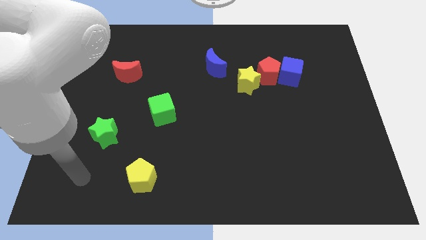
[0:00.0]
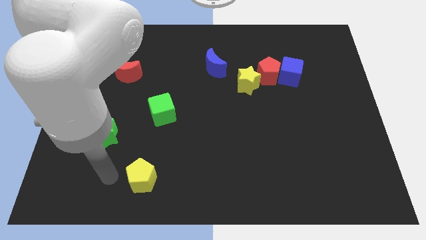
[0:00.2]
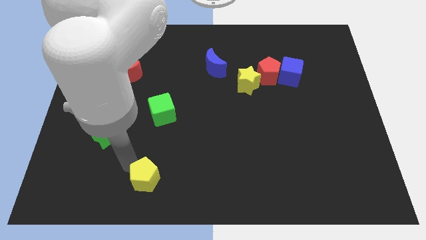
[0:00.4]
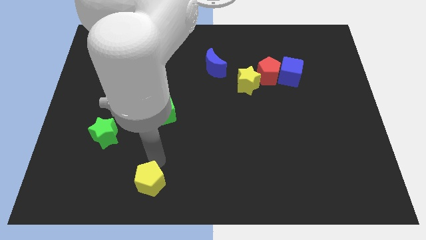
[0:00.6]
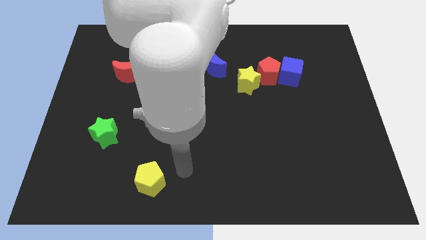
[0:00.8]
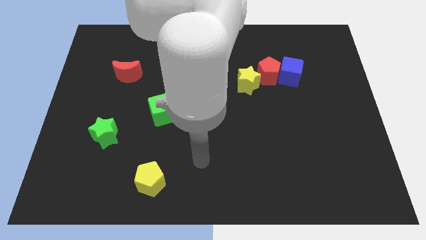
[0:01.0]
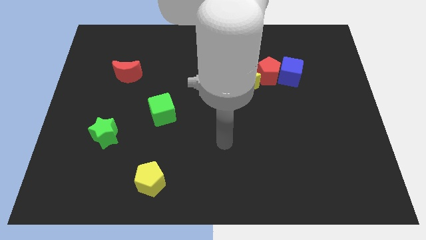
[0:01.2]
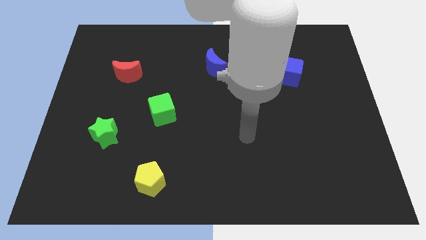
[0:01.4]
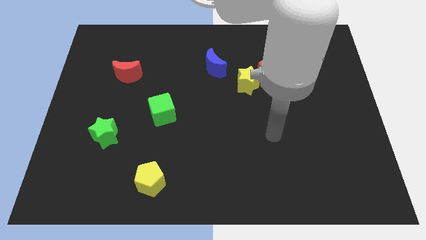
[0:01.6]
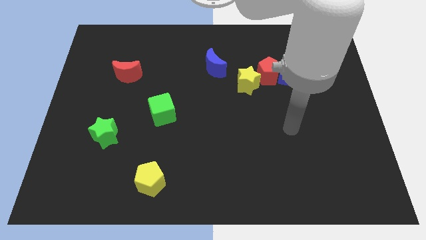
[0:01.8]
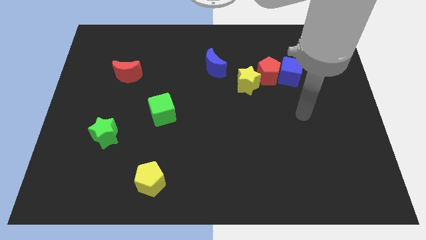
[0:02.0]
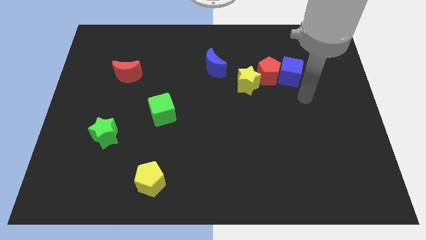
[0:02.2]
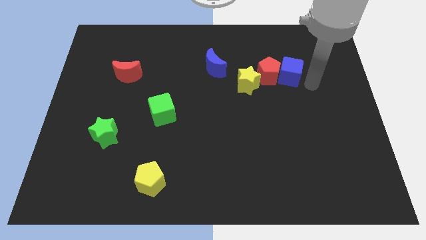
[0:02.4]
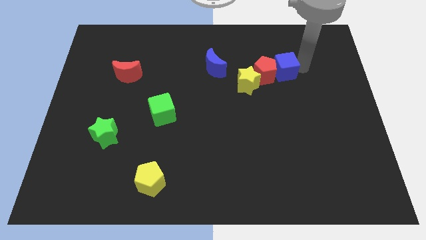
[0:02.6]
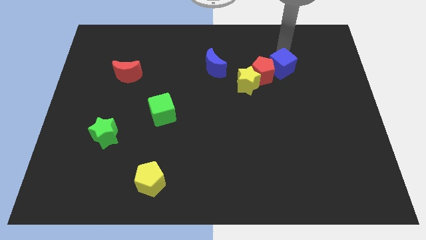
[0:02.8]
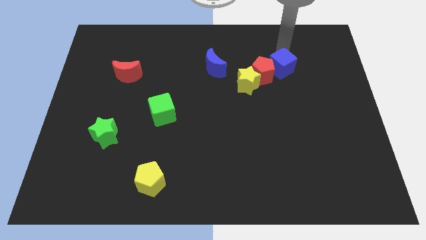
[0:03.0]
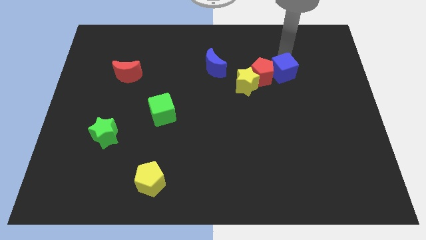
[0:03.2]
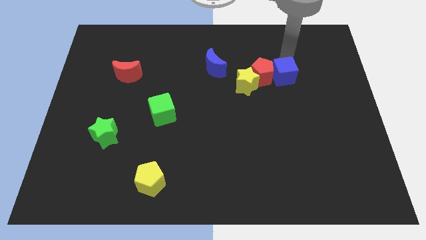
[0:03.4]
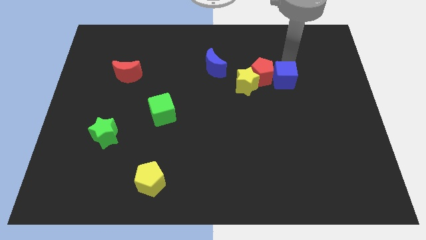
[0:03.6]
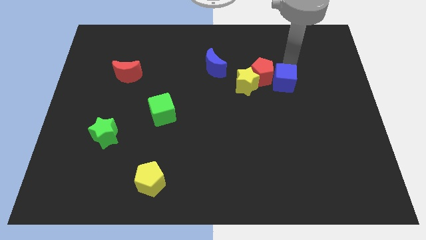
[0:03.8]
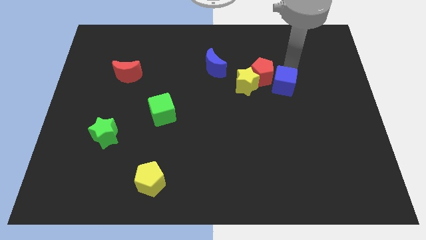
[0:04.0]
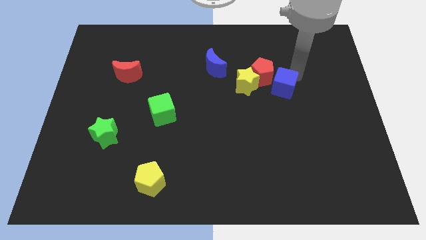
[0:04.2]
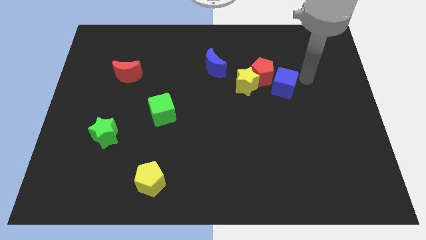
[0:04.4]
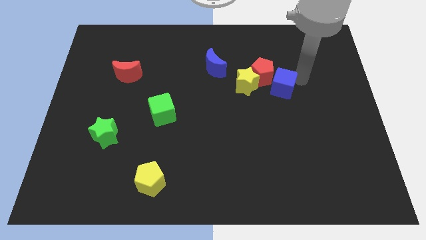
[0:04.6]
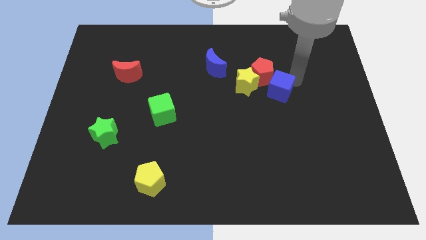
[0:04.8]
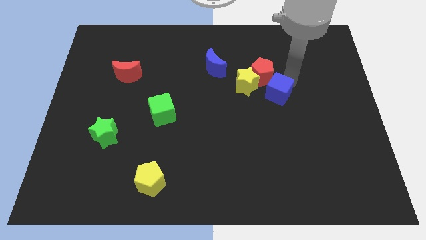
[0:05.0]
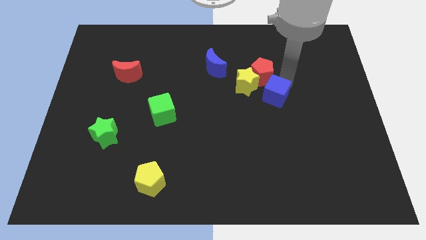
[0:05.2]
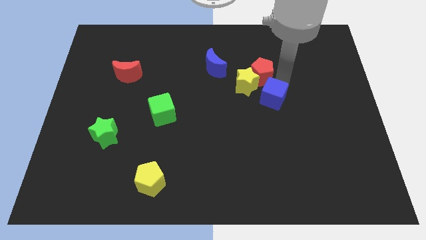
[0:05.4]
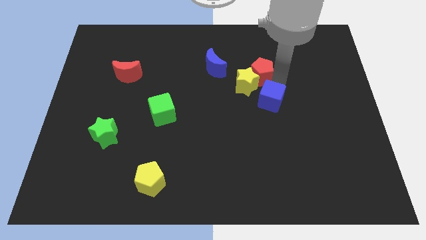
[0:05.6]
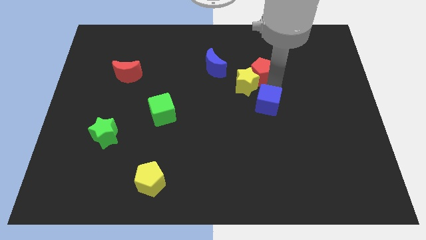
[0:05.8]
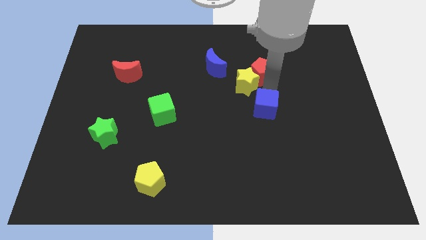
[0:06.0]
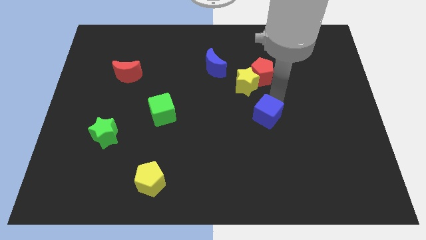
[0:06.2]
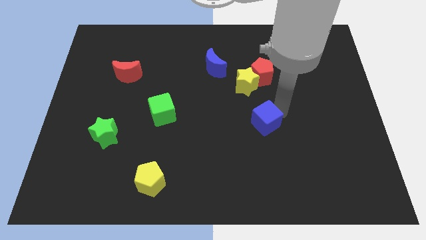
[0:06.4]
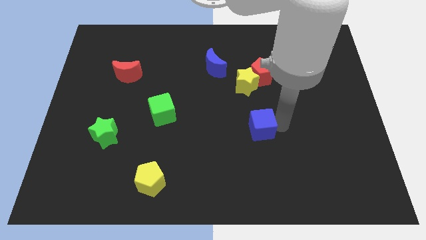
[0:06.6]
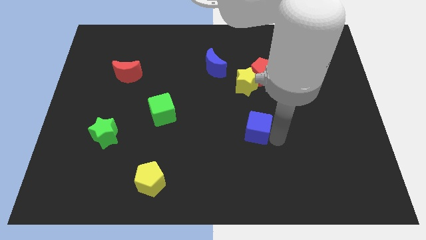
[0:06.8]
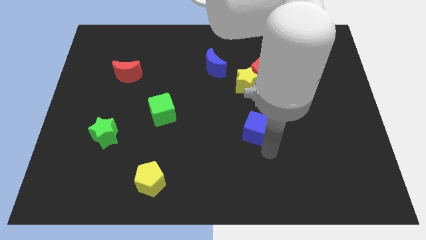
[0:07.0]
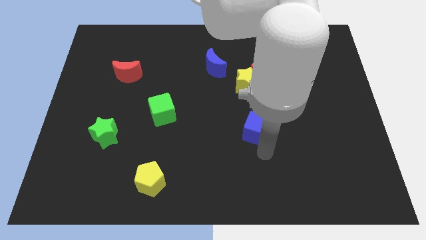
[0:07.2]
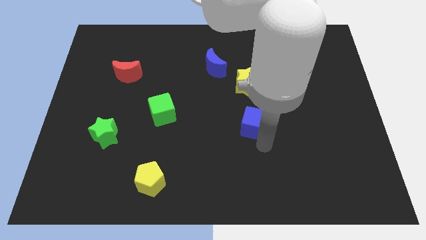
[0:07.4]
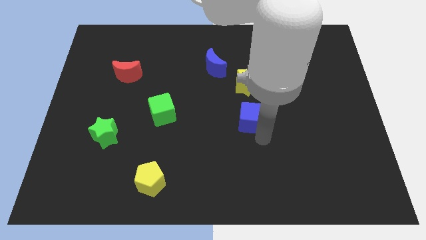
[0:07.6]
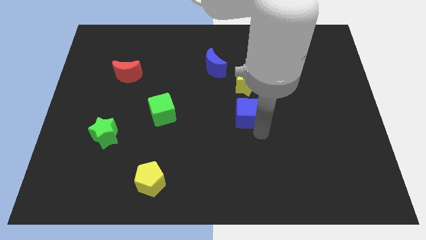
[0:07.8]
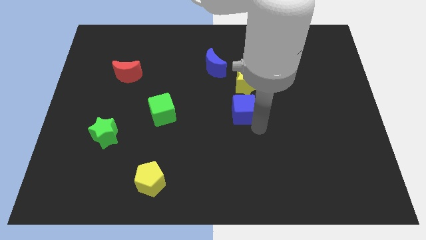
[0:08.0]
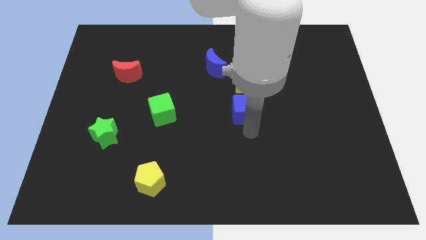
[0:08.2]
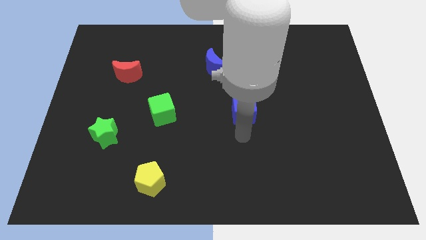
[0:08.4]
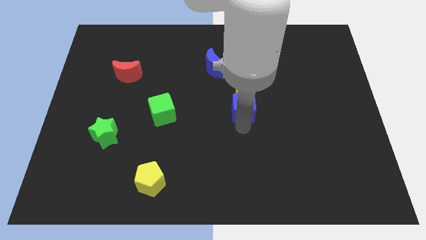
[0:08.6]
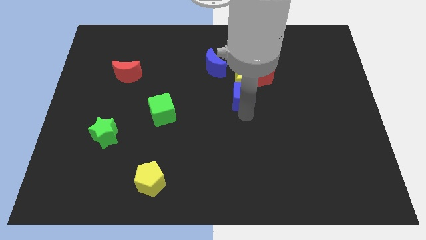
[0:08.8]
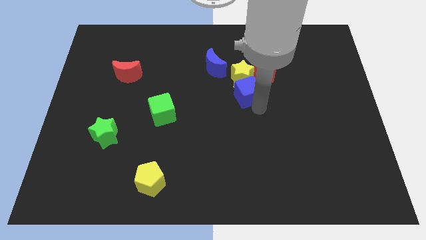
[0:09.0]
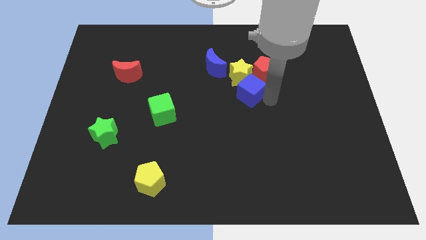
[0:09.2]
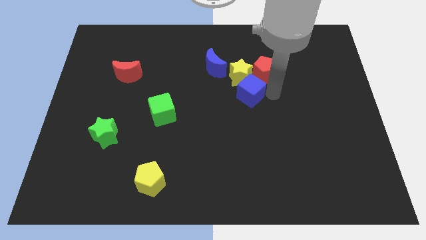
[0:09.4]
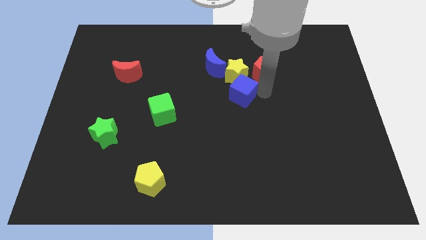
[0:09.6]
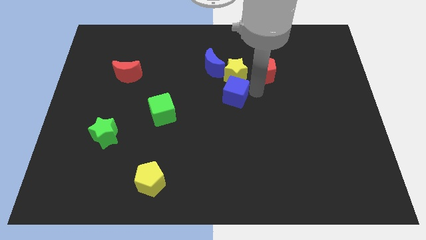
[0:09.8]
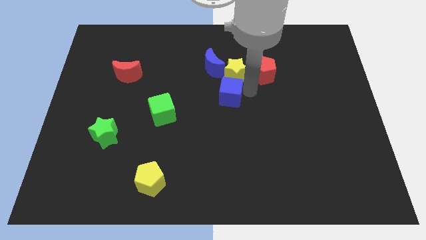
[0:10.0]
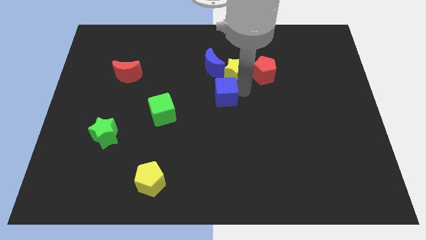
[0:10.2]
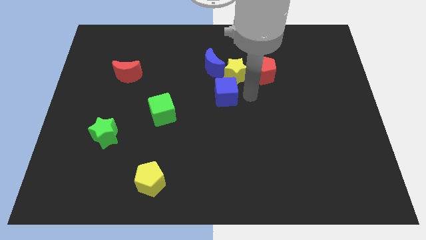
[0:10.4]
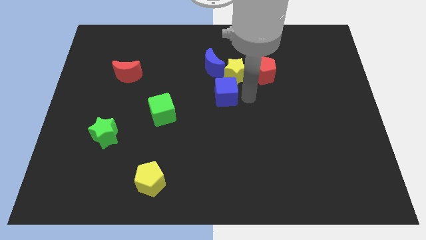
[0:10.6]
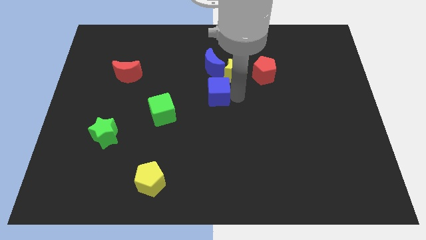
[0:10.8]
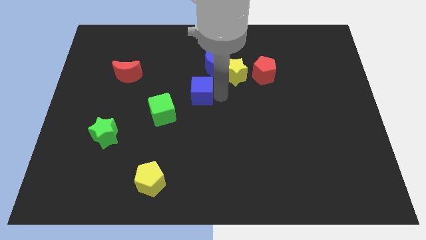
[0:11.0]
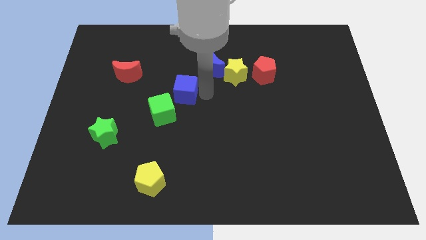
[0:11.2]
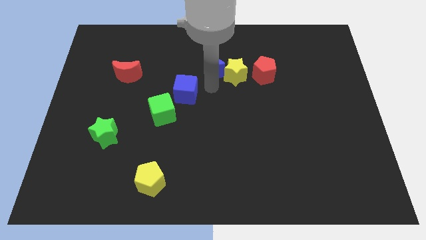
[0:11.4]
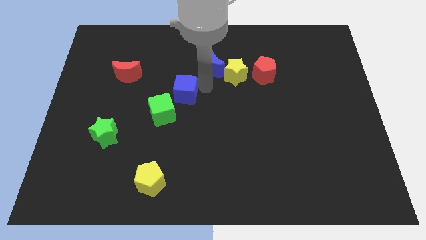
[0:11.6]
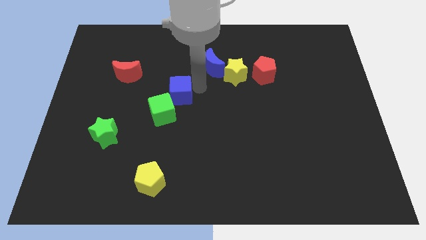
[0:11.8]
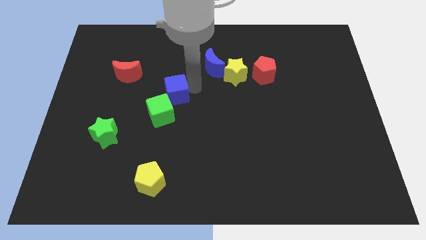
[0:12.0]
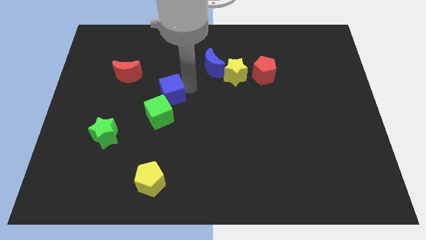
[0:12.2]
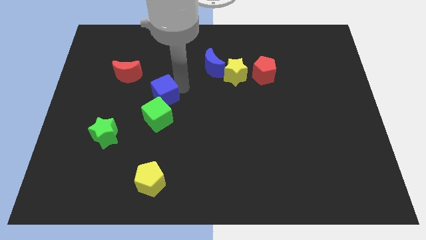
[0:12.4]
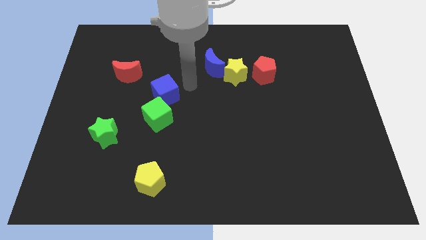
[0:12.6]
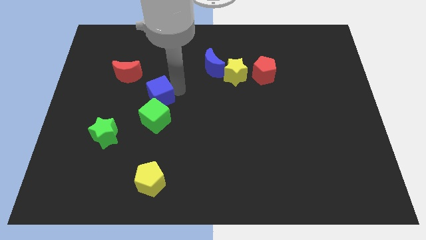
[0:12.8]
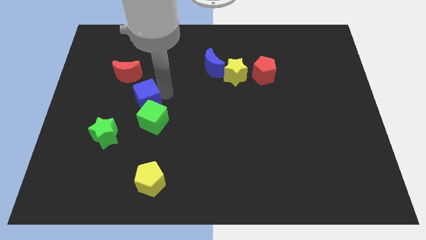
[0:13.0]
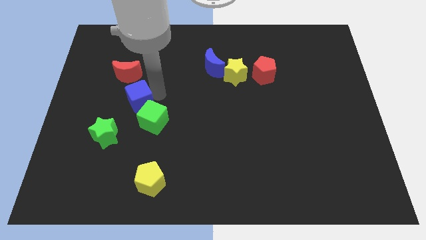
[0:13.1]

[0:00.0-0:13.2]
push the blue cube diagonally up and to the right of the green star

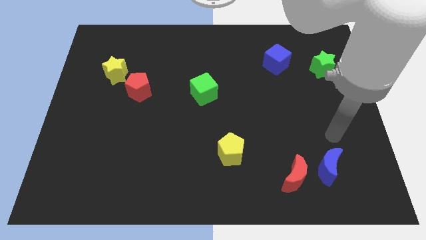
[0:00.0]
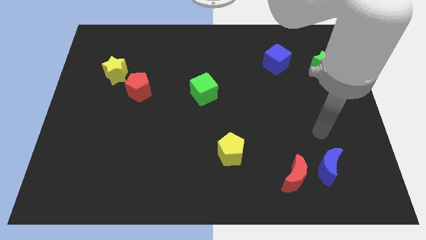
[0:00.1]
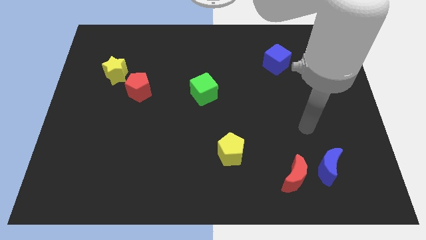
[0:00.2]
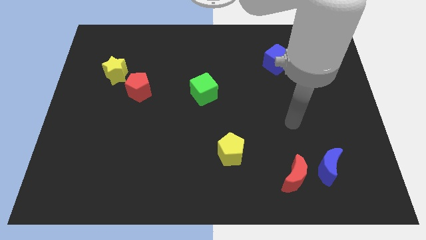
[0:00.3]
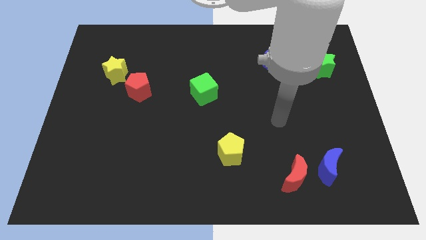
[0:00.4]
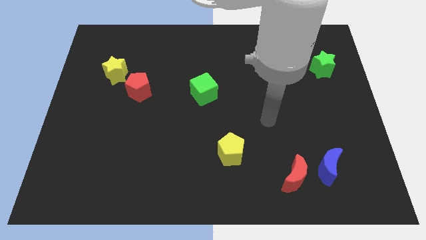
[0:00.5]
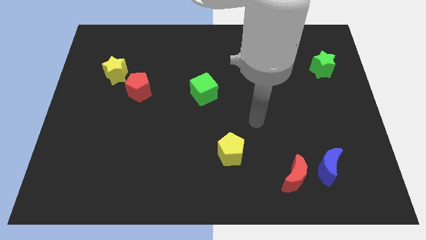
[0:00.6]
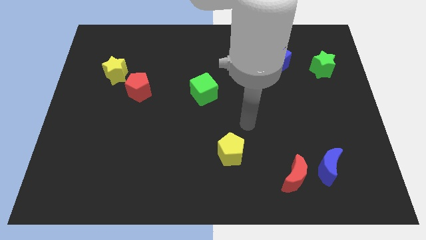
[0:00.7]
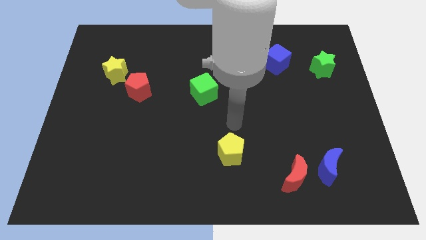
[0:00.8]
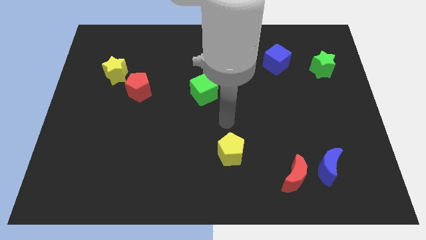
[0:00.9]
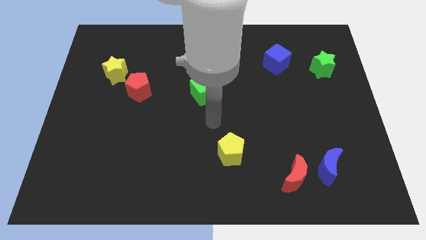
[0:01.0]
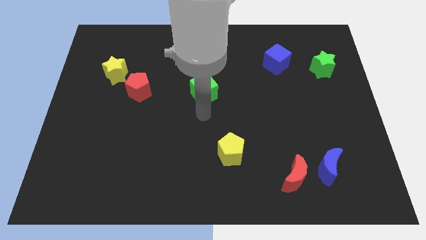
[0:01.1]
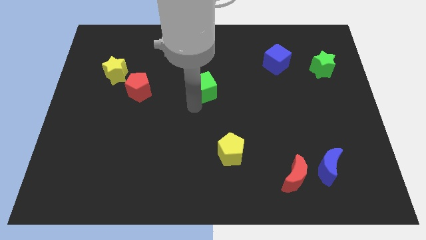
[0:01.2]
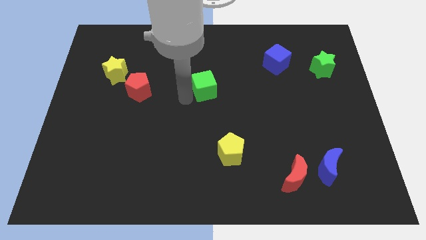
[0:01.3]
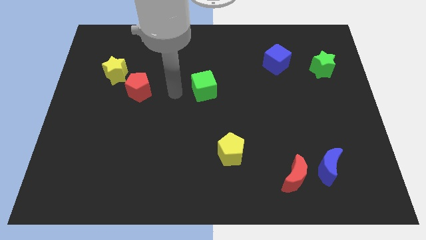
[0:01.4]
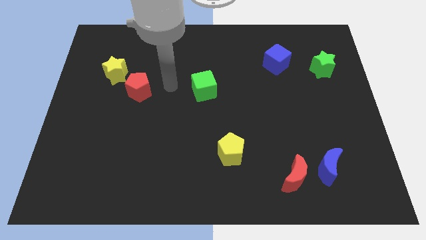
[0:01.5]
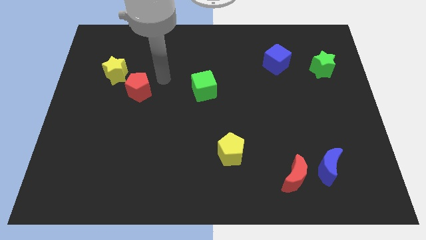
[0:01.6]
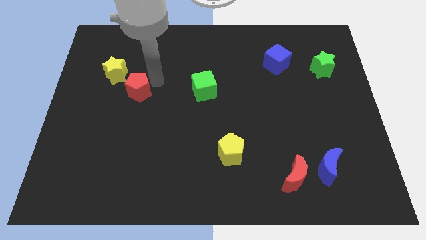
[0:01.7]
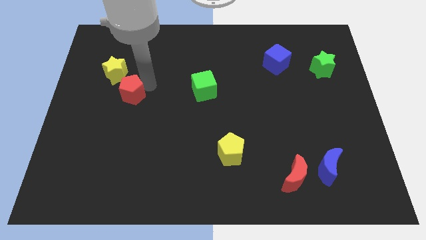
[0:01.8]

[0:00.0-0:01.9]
push the red pentagon to the bottom of the yellow star
